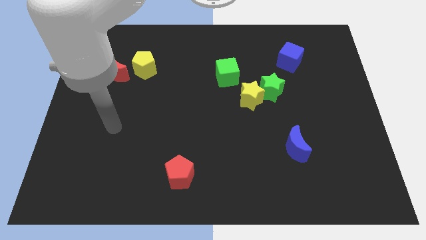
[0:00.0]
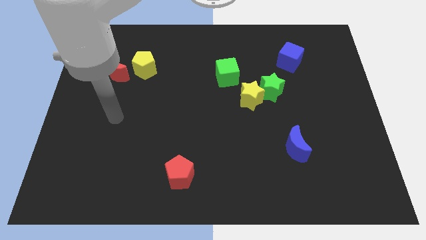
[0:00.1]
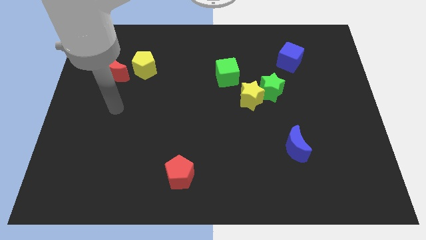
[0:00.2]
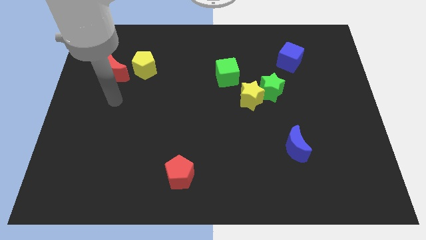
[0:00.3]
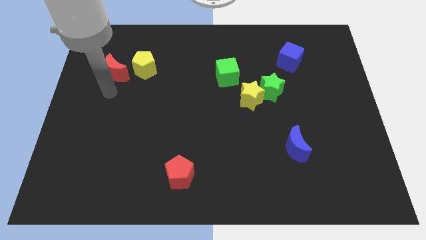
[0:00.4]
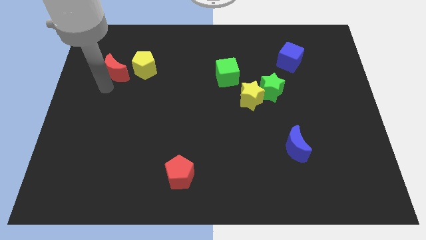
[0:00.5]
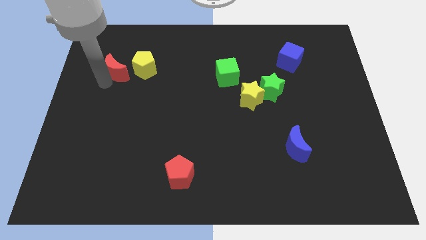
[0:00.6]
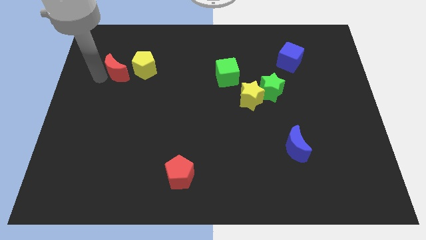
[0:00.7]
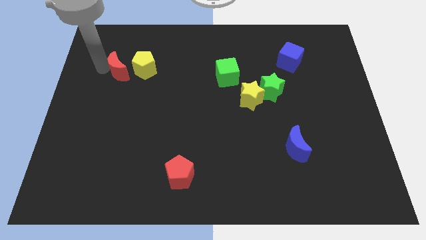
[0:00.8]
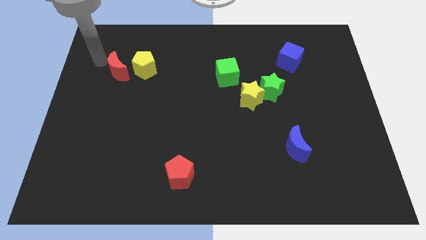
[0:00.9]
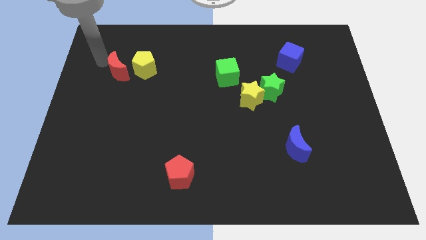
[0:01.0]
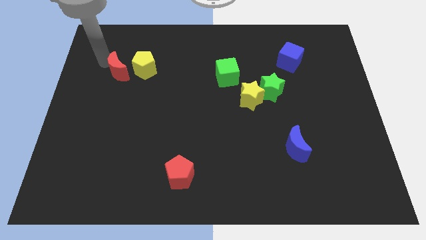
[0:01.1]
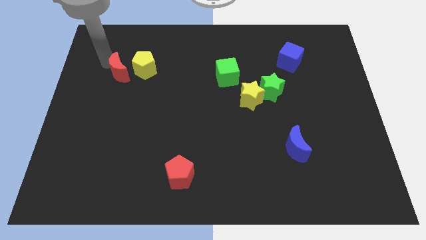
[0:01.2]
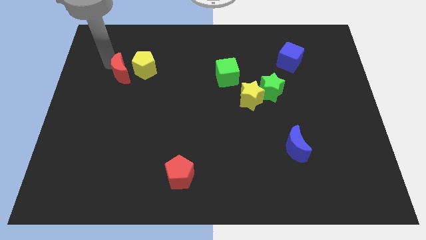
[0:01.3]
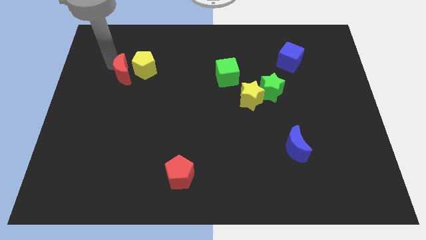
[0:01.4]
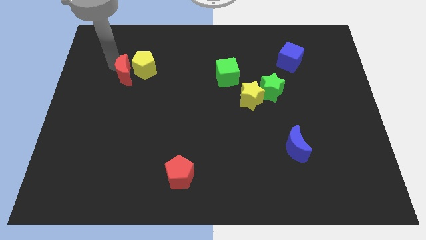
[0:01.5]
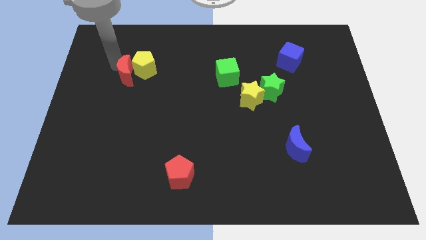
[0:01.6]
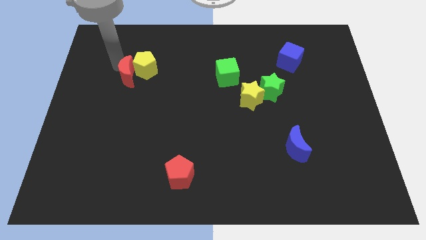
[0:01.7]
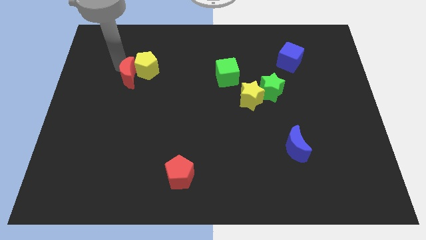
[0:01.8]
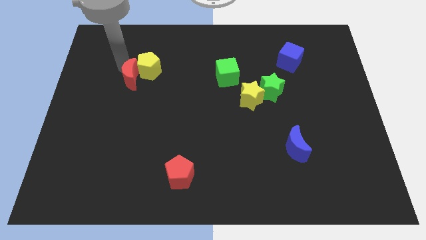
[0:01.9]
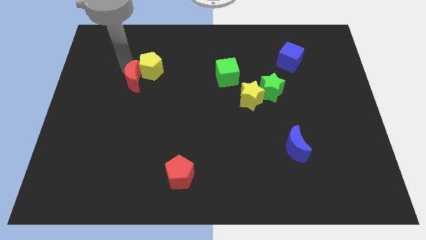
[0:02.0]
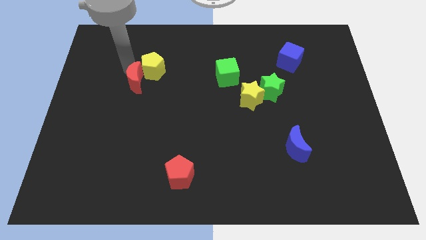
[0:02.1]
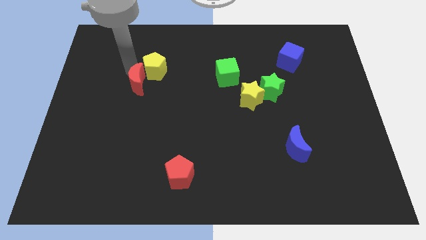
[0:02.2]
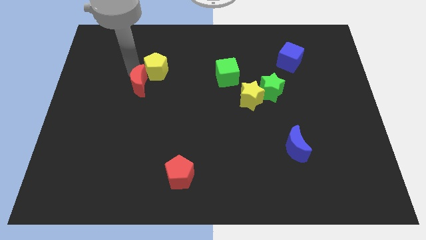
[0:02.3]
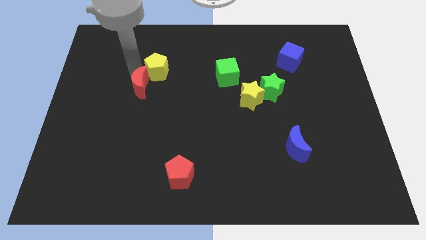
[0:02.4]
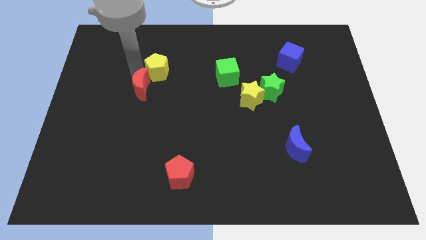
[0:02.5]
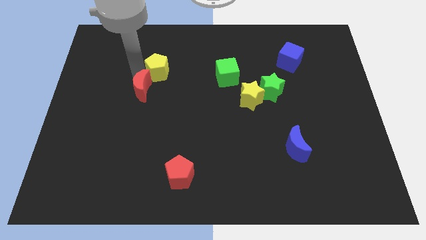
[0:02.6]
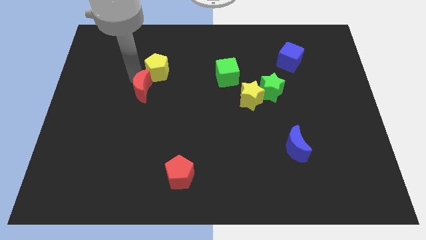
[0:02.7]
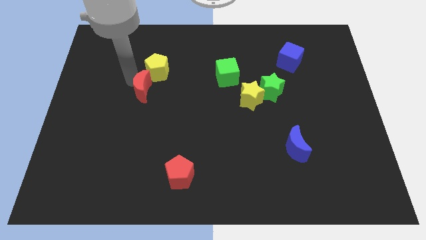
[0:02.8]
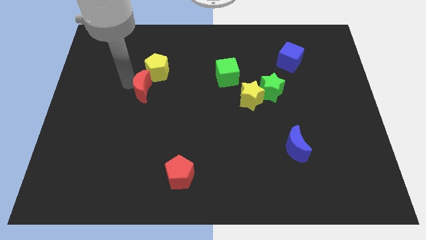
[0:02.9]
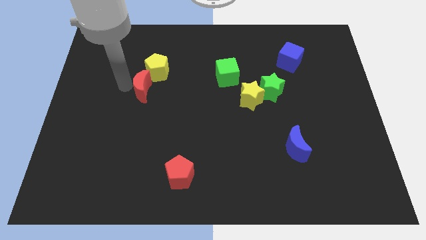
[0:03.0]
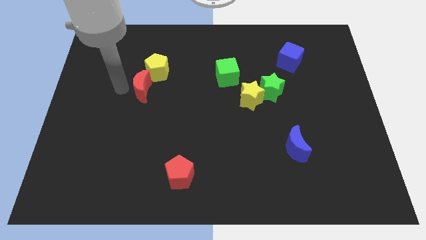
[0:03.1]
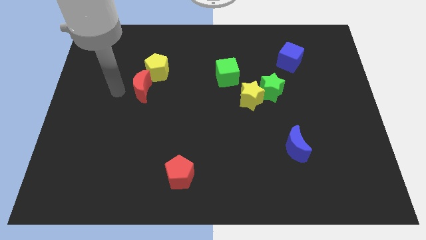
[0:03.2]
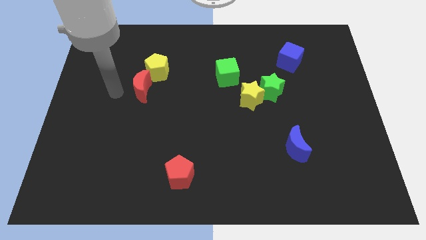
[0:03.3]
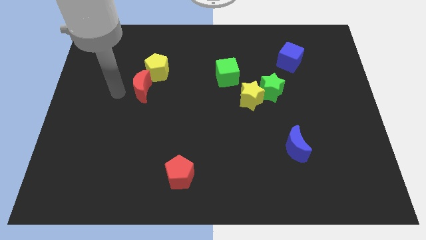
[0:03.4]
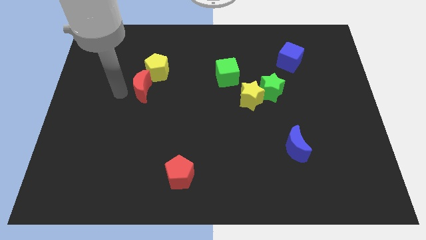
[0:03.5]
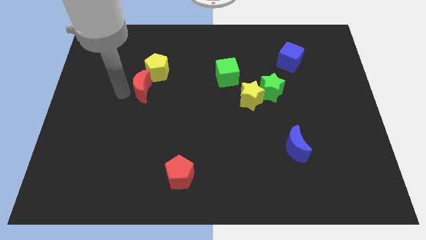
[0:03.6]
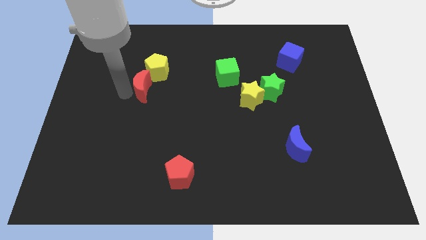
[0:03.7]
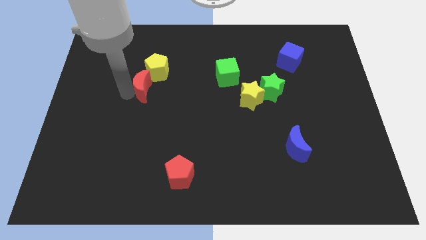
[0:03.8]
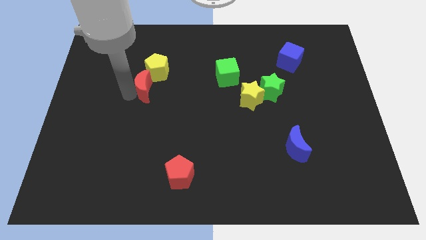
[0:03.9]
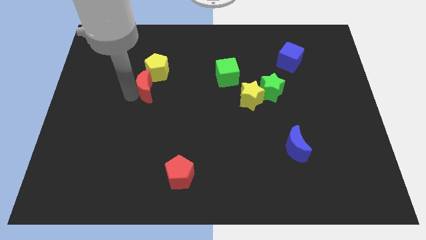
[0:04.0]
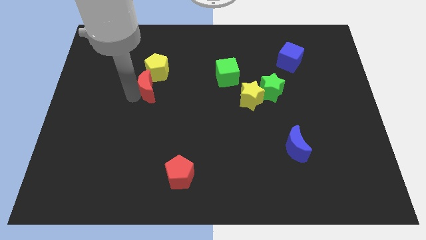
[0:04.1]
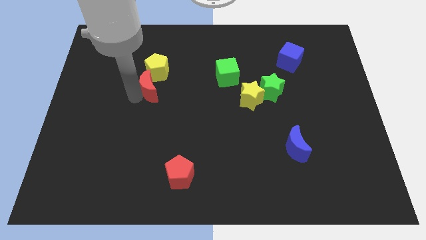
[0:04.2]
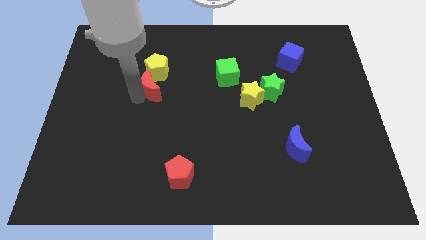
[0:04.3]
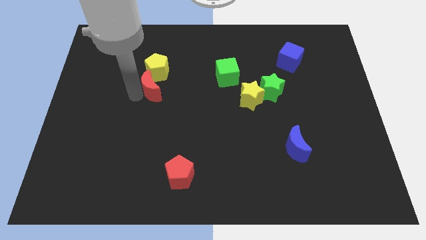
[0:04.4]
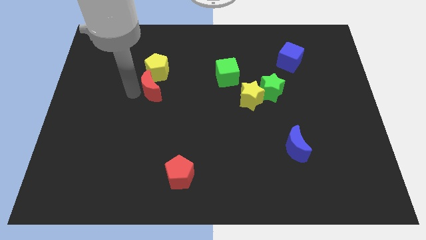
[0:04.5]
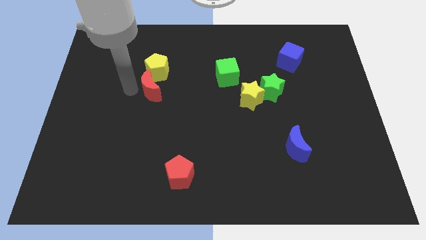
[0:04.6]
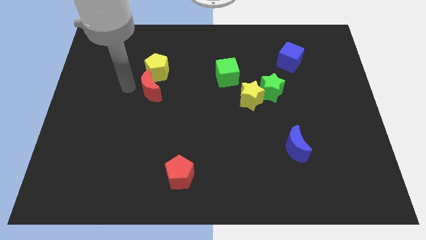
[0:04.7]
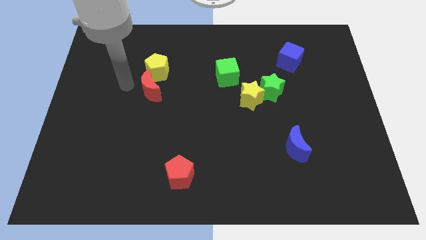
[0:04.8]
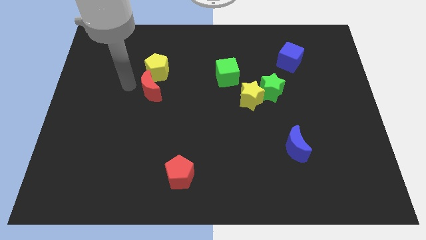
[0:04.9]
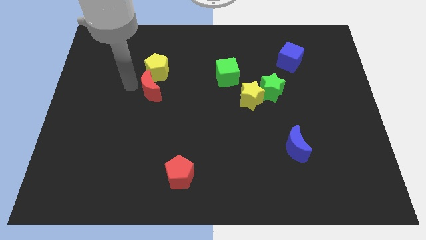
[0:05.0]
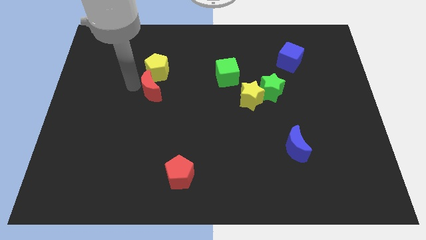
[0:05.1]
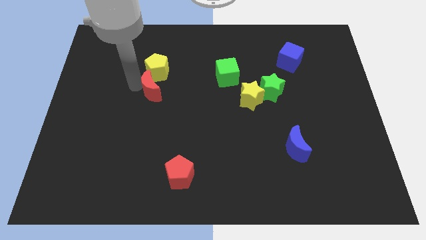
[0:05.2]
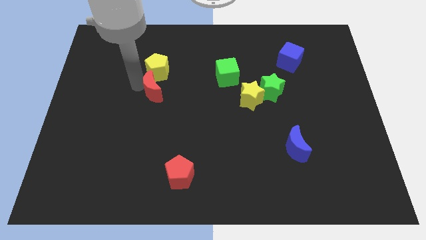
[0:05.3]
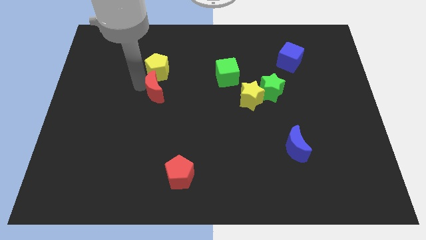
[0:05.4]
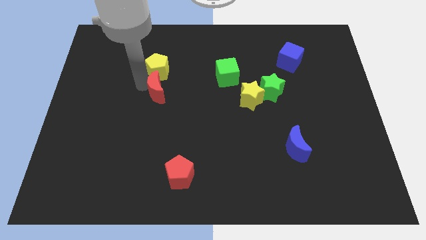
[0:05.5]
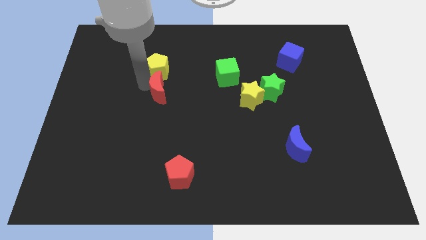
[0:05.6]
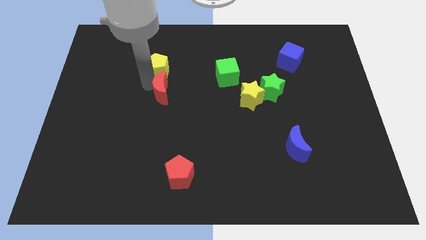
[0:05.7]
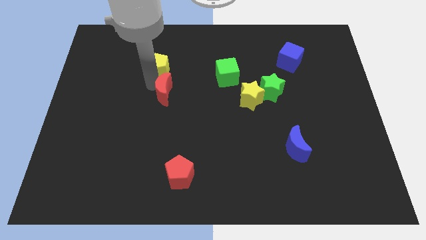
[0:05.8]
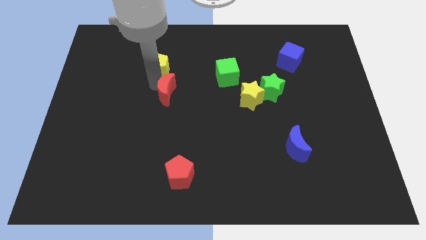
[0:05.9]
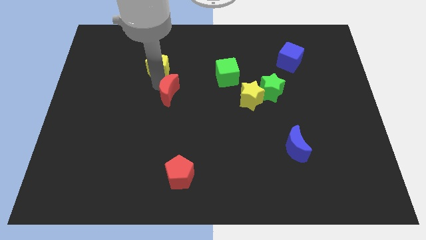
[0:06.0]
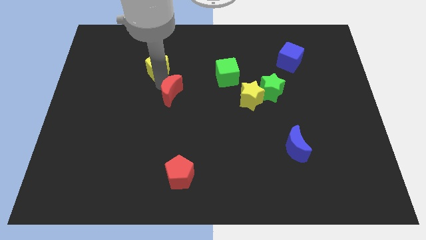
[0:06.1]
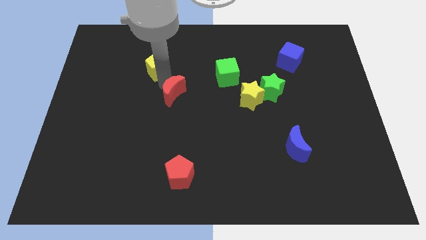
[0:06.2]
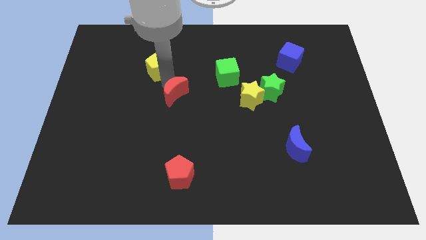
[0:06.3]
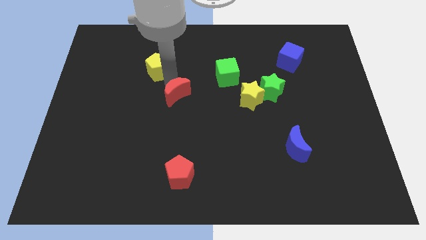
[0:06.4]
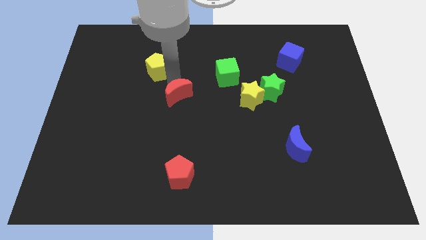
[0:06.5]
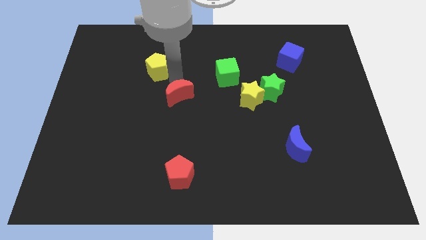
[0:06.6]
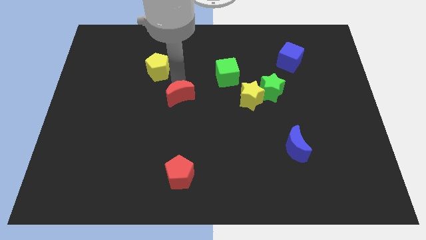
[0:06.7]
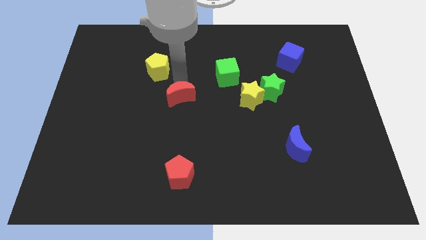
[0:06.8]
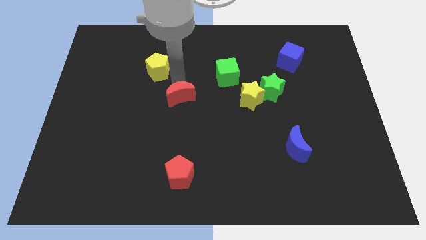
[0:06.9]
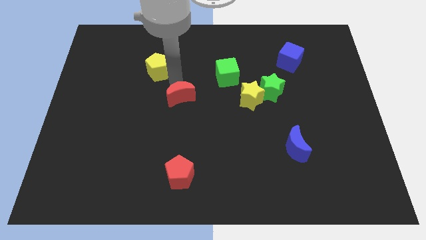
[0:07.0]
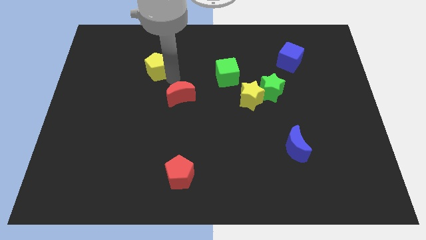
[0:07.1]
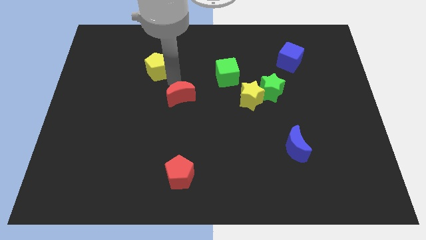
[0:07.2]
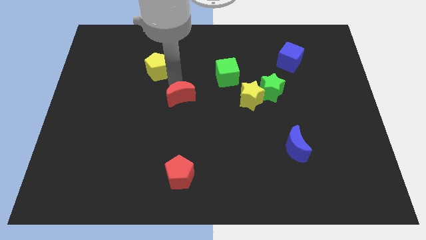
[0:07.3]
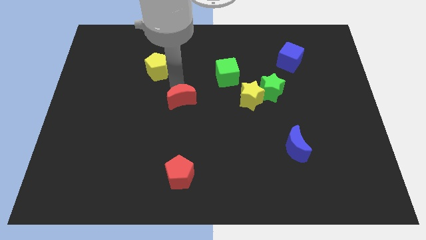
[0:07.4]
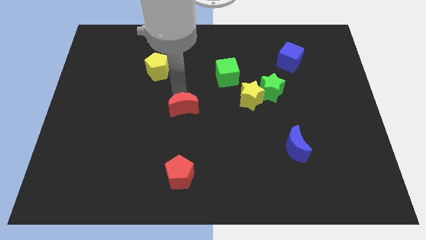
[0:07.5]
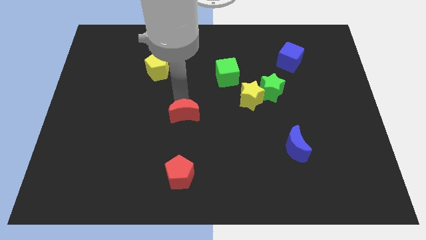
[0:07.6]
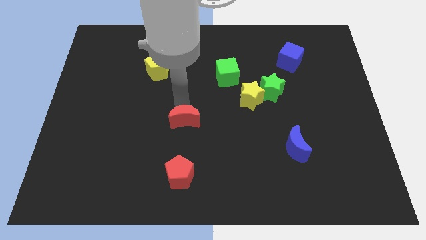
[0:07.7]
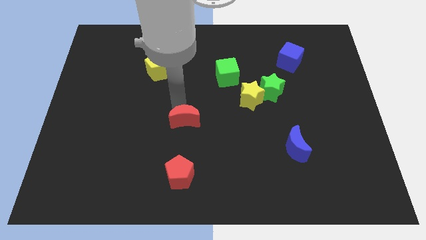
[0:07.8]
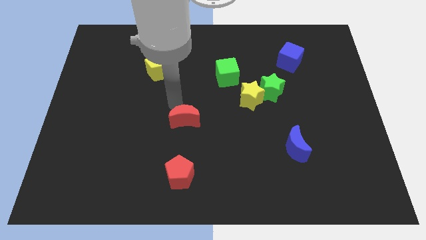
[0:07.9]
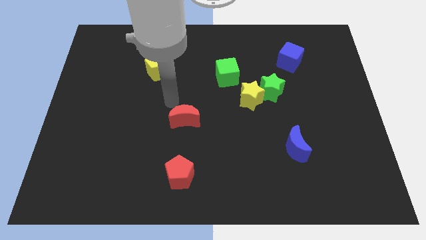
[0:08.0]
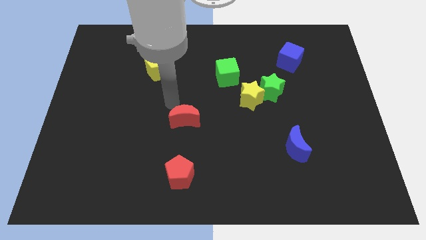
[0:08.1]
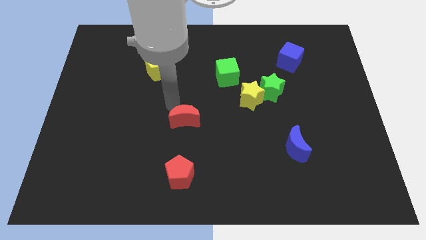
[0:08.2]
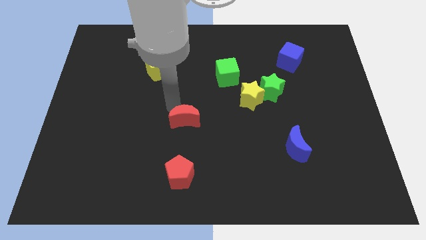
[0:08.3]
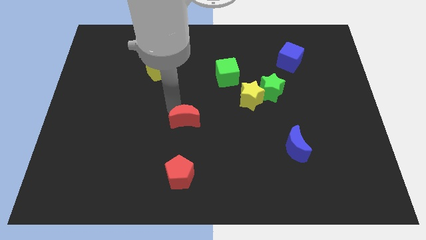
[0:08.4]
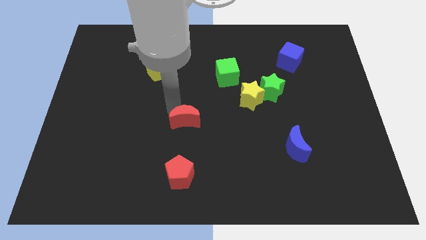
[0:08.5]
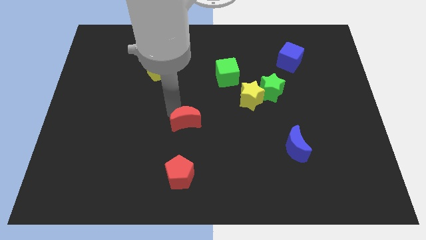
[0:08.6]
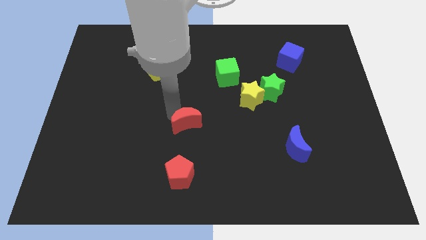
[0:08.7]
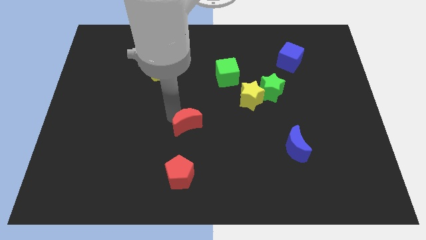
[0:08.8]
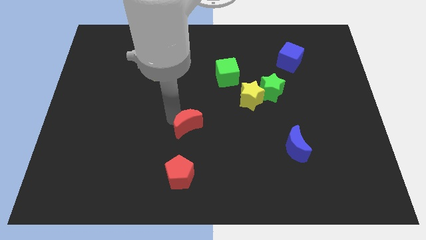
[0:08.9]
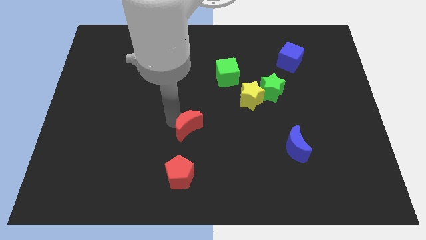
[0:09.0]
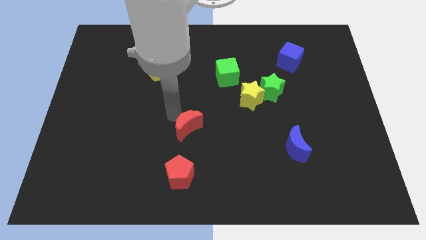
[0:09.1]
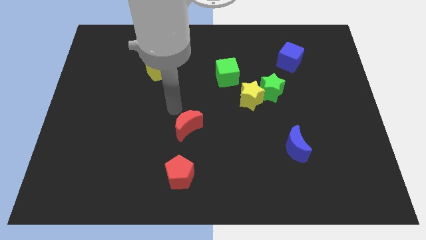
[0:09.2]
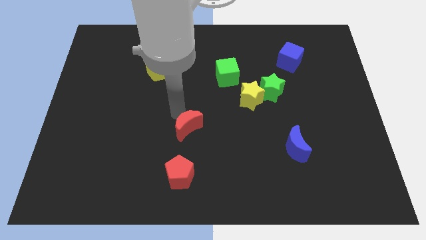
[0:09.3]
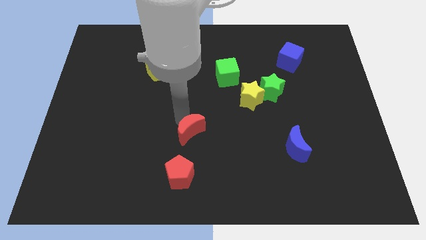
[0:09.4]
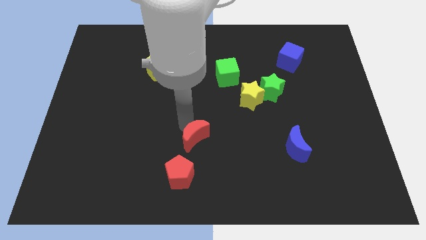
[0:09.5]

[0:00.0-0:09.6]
slide the red moon to the top right of the red pentagon
